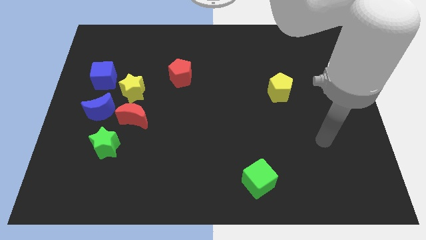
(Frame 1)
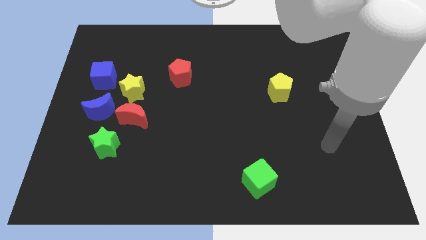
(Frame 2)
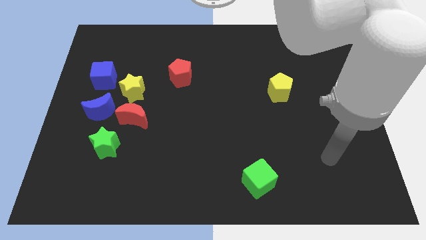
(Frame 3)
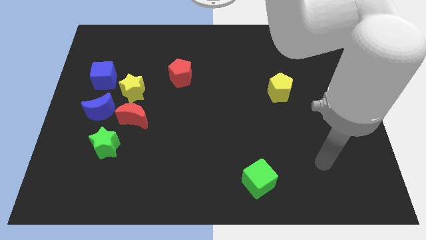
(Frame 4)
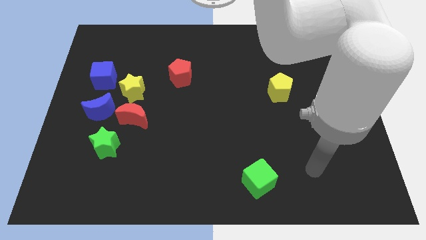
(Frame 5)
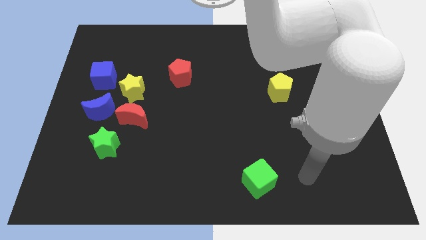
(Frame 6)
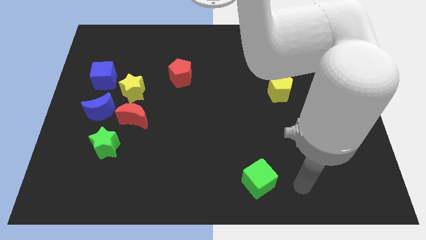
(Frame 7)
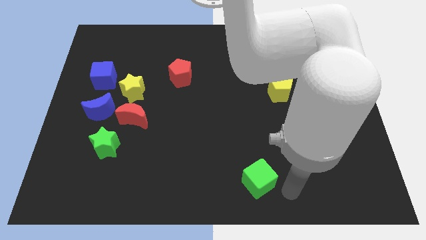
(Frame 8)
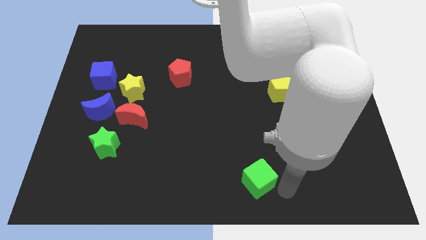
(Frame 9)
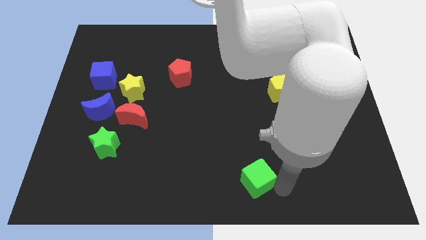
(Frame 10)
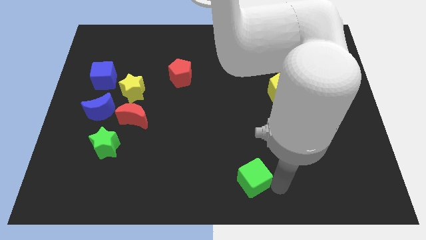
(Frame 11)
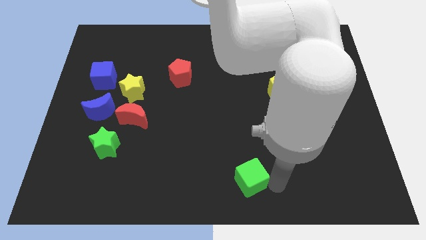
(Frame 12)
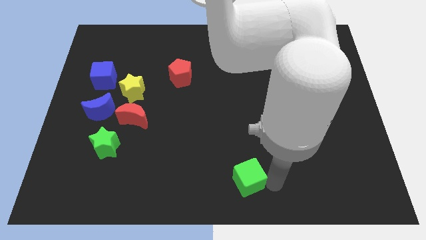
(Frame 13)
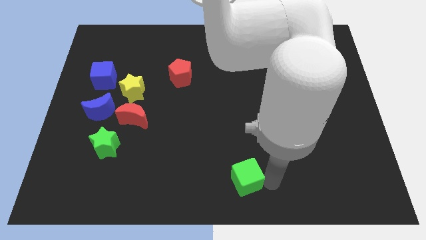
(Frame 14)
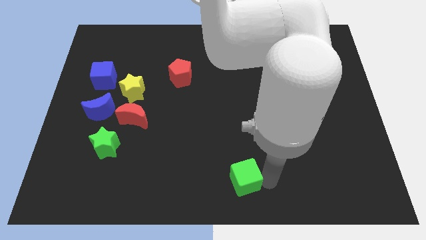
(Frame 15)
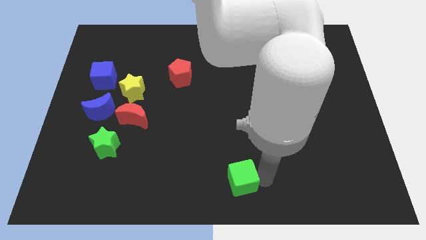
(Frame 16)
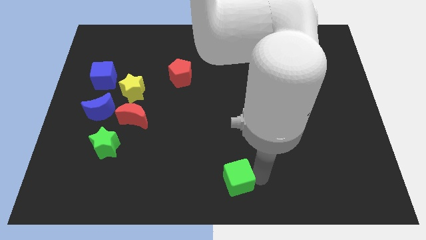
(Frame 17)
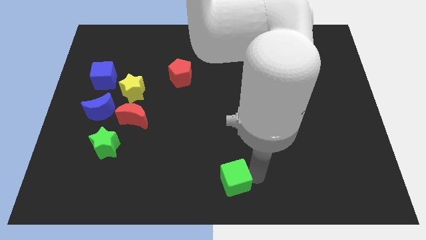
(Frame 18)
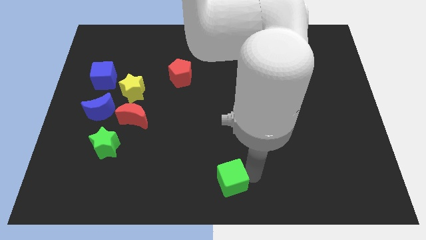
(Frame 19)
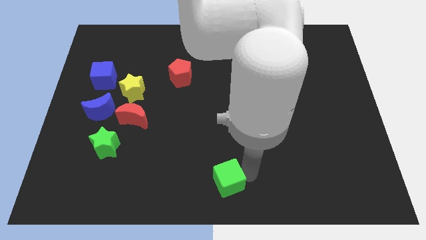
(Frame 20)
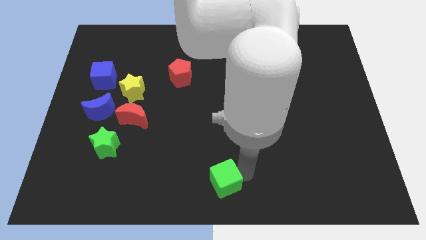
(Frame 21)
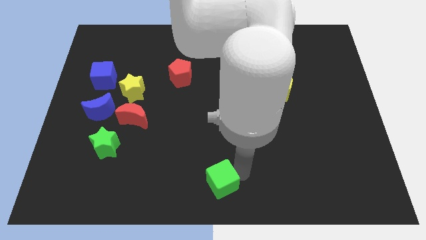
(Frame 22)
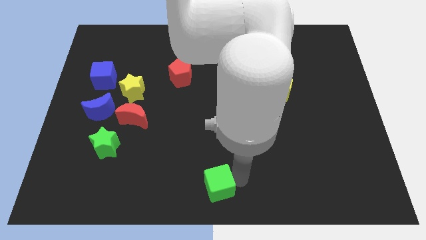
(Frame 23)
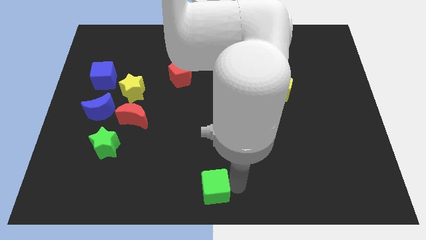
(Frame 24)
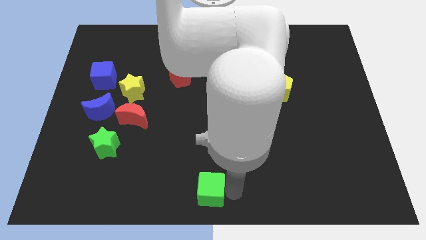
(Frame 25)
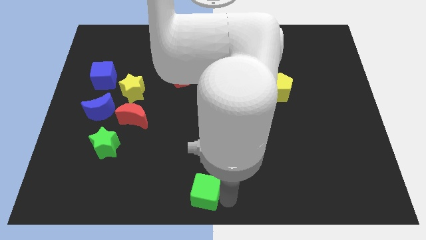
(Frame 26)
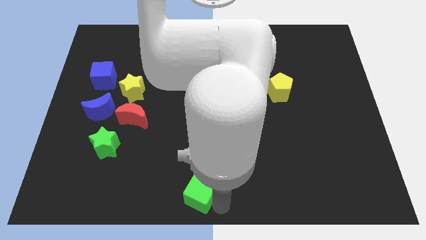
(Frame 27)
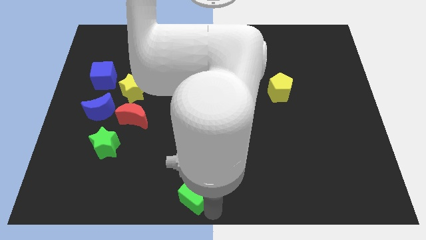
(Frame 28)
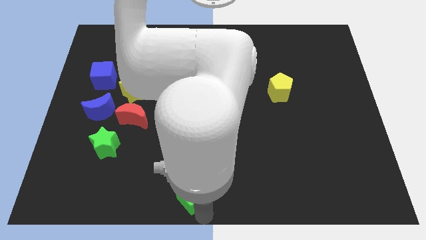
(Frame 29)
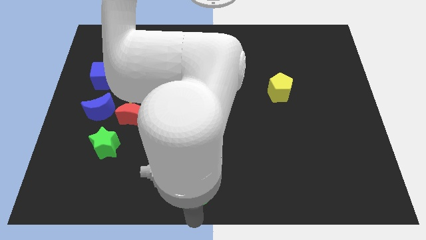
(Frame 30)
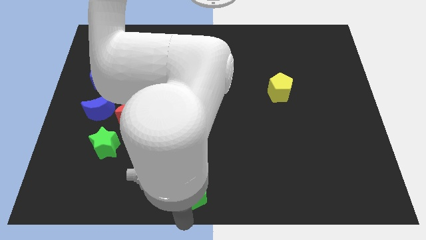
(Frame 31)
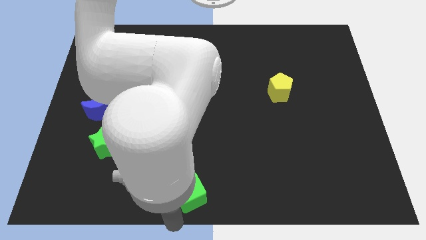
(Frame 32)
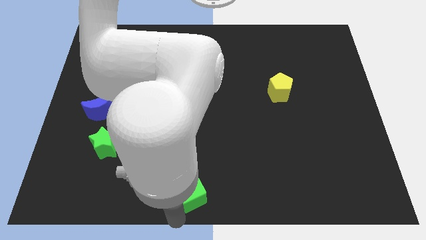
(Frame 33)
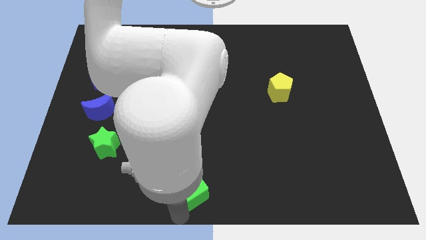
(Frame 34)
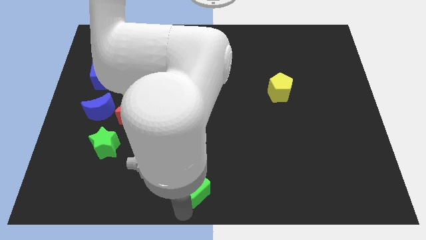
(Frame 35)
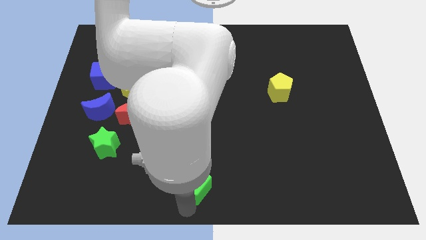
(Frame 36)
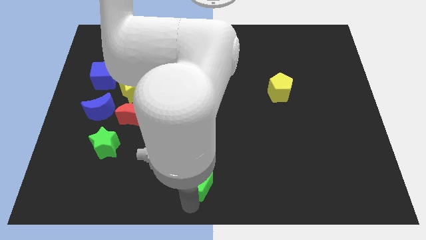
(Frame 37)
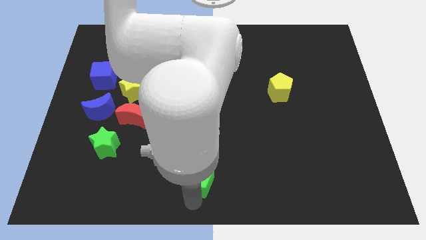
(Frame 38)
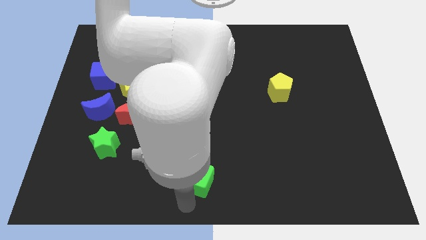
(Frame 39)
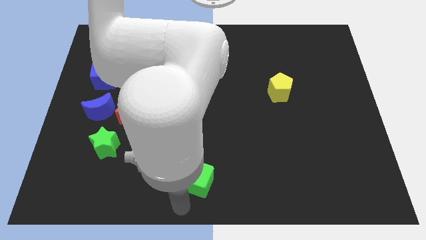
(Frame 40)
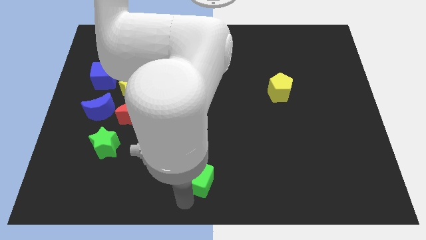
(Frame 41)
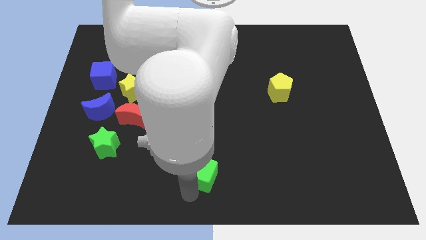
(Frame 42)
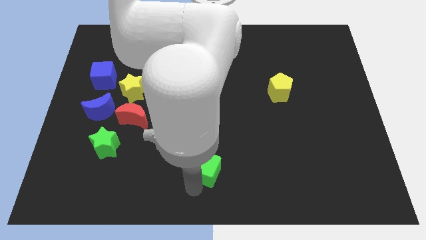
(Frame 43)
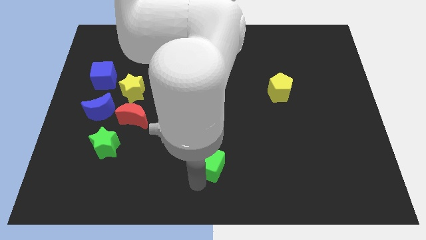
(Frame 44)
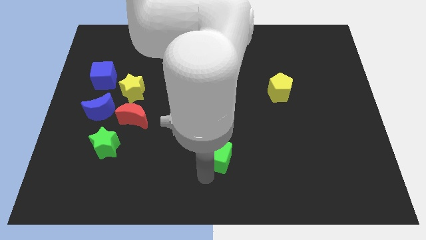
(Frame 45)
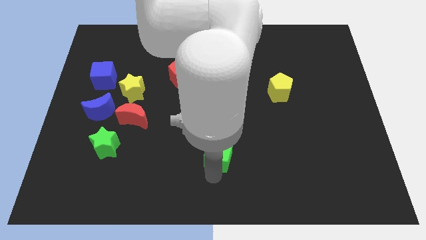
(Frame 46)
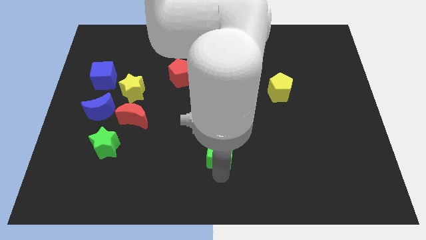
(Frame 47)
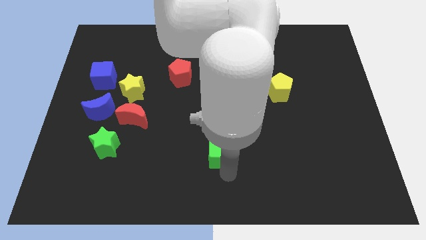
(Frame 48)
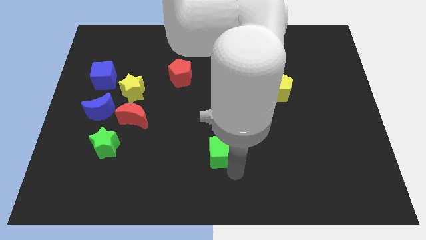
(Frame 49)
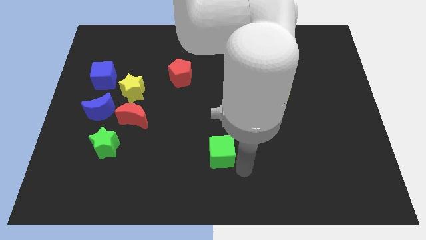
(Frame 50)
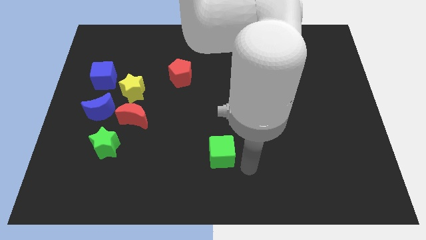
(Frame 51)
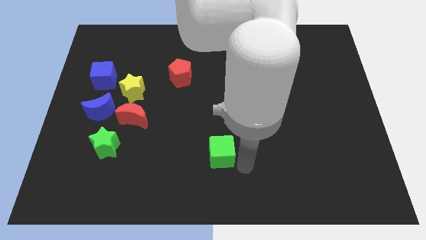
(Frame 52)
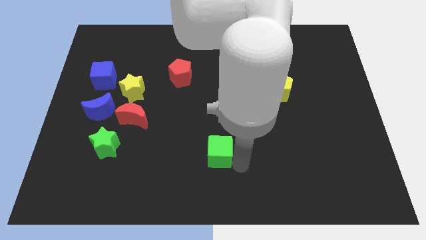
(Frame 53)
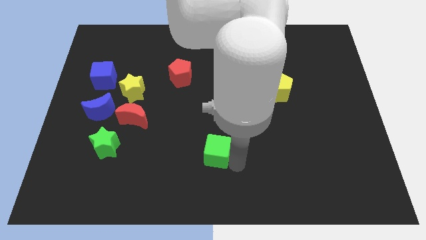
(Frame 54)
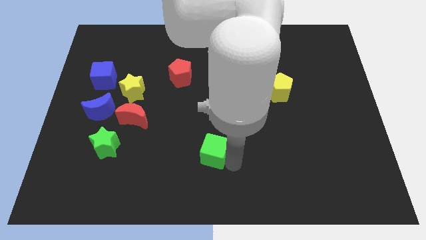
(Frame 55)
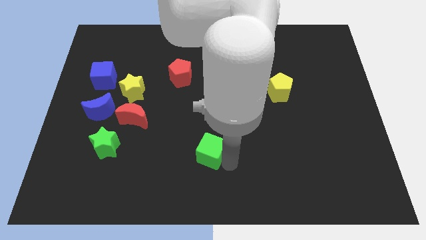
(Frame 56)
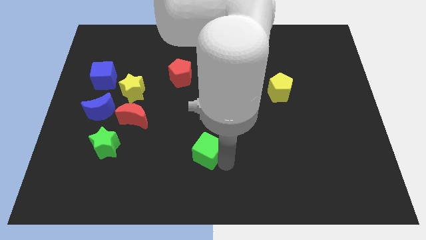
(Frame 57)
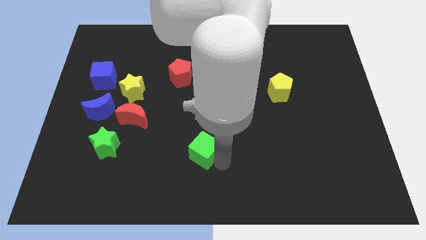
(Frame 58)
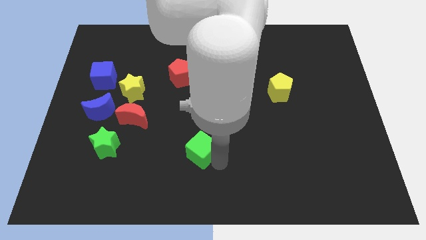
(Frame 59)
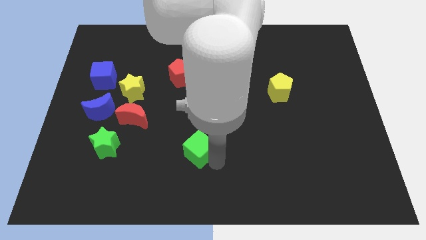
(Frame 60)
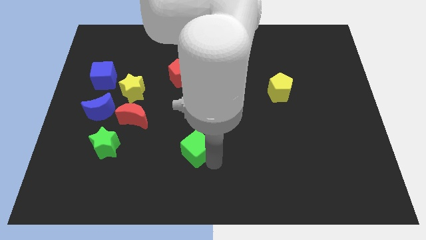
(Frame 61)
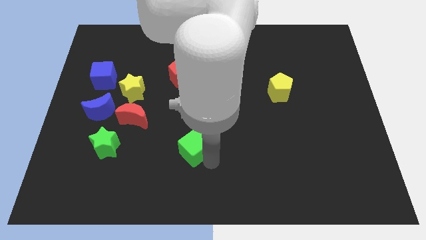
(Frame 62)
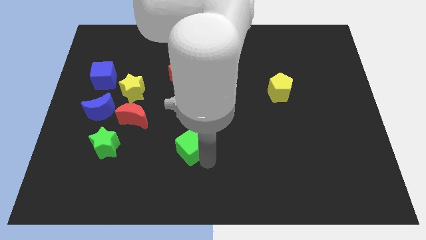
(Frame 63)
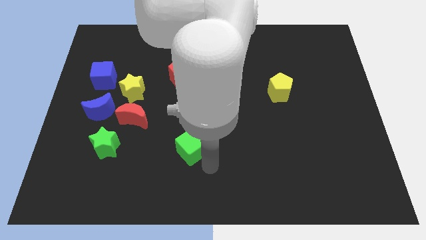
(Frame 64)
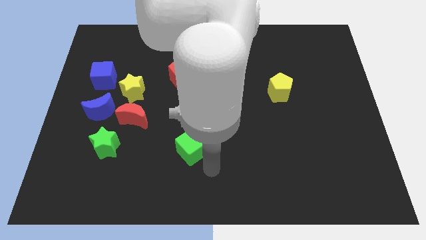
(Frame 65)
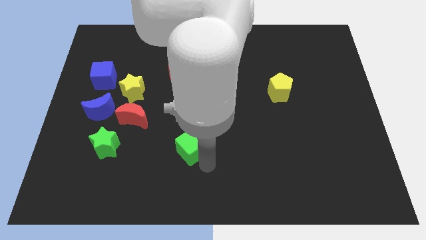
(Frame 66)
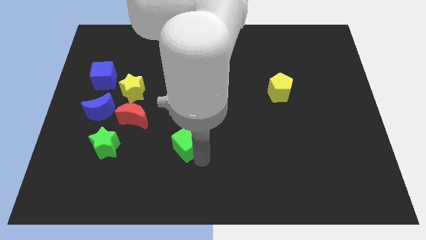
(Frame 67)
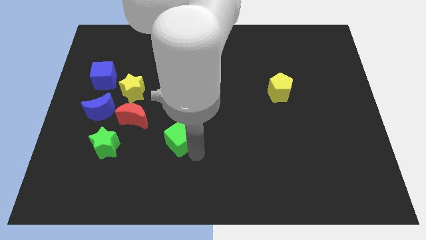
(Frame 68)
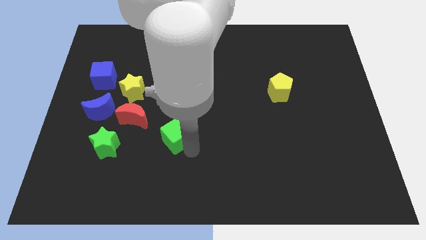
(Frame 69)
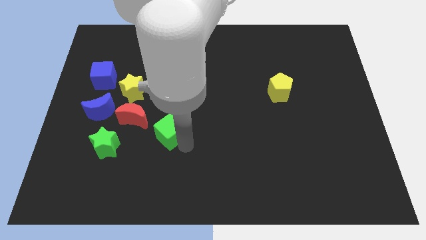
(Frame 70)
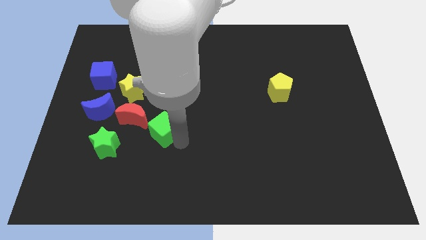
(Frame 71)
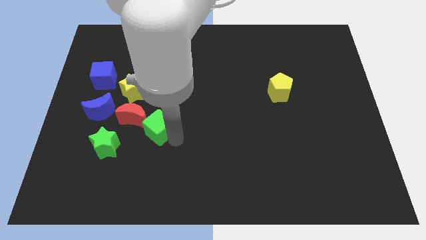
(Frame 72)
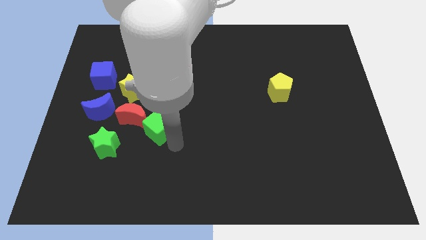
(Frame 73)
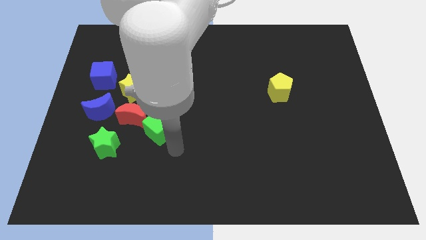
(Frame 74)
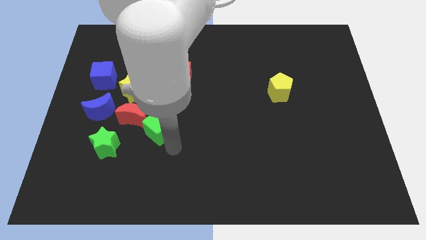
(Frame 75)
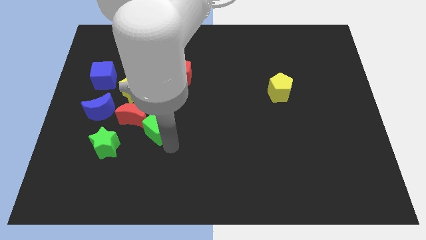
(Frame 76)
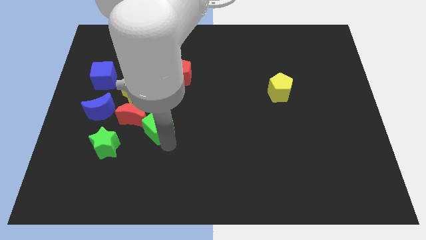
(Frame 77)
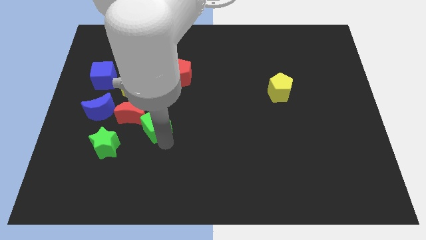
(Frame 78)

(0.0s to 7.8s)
put the green cube just right of the blue moon
